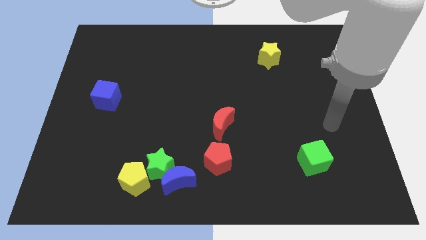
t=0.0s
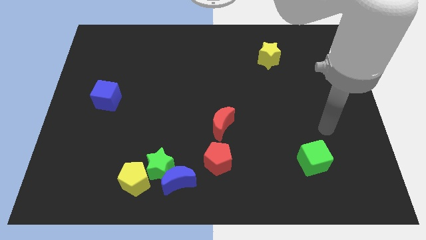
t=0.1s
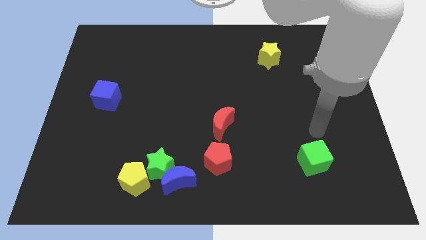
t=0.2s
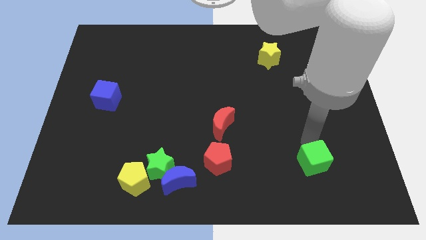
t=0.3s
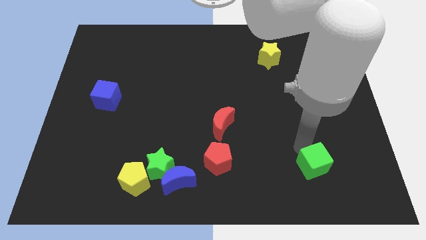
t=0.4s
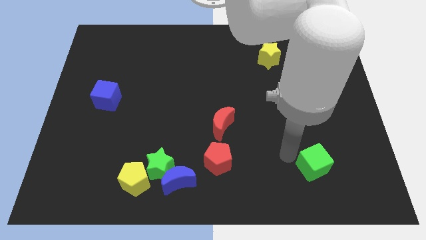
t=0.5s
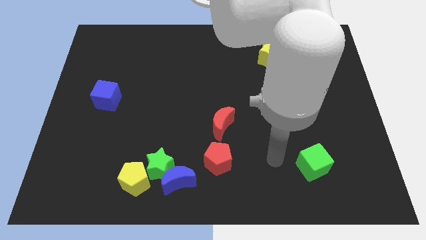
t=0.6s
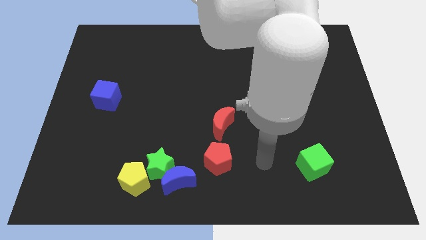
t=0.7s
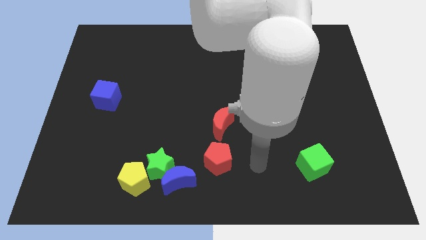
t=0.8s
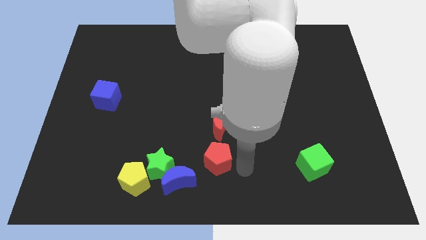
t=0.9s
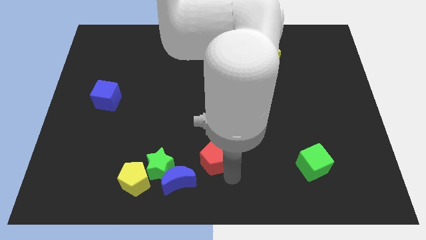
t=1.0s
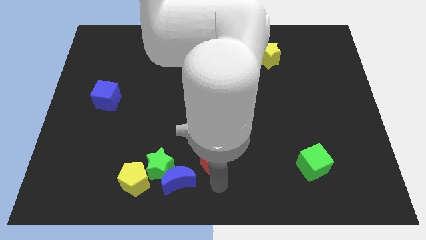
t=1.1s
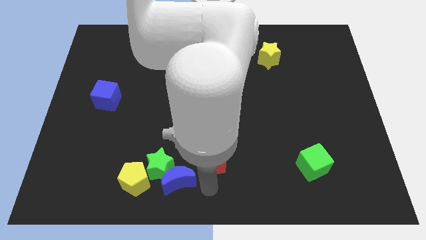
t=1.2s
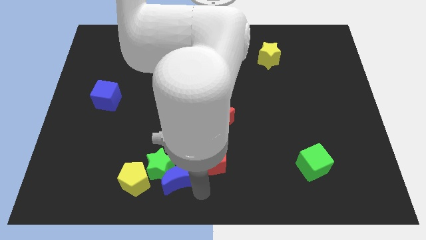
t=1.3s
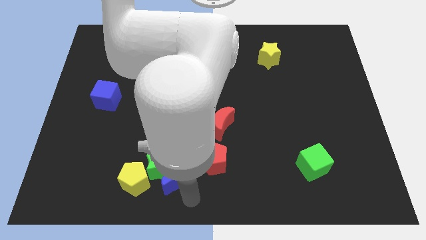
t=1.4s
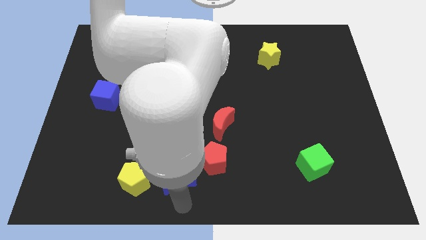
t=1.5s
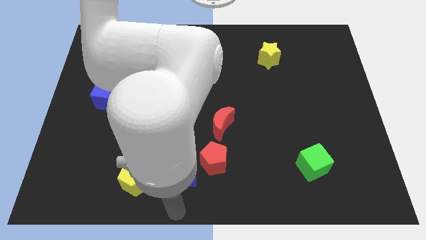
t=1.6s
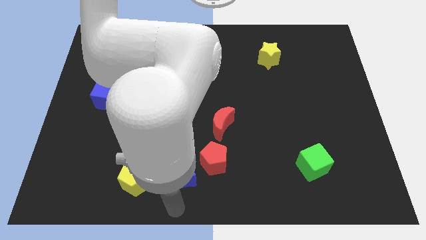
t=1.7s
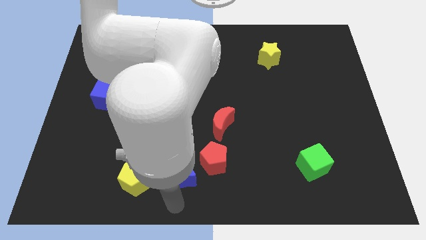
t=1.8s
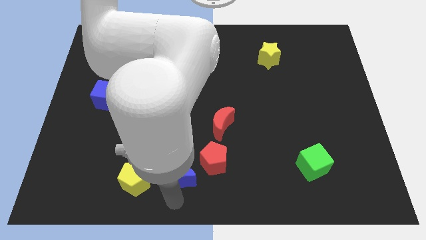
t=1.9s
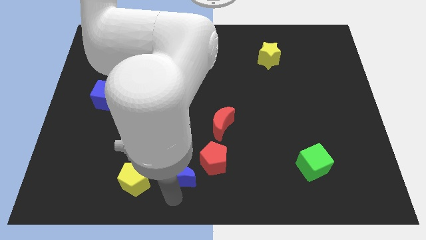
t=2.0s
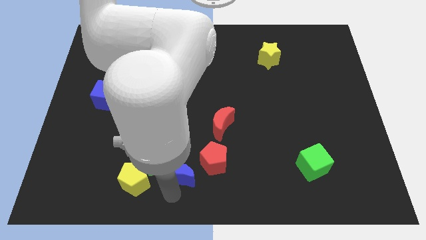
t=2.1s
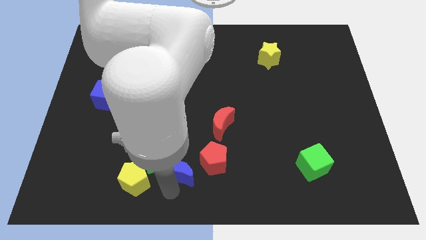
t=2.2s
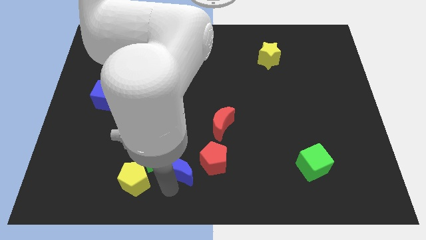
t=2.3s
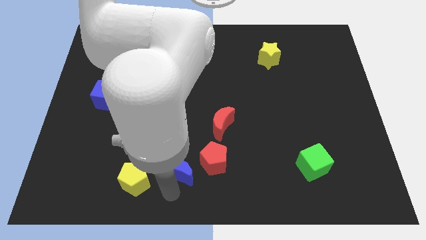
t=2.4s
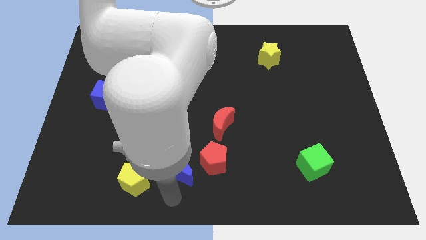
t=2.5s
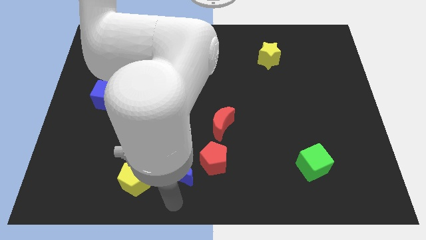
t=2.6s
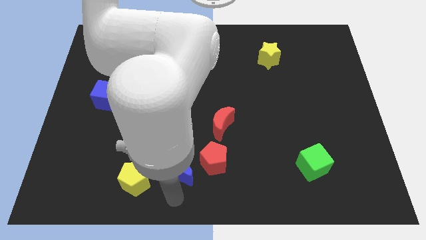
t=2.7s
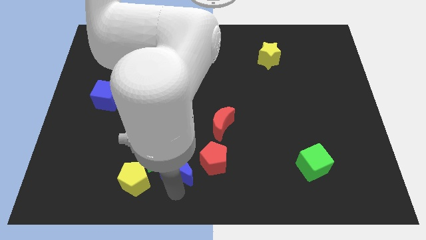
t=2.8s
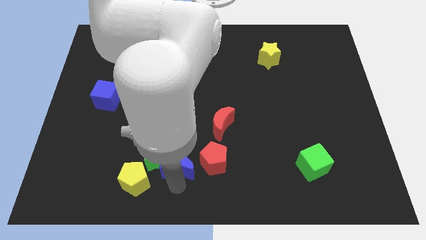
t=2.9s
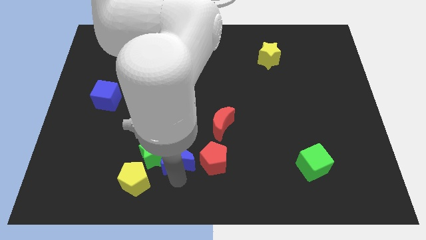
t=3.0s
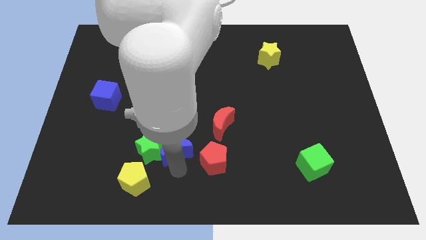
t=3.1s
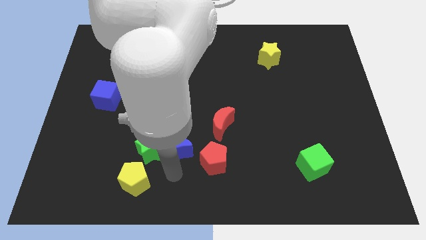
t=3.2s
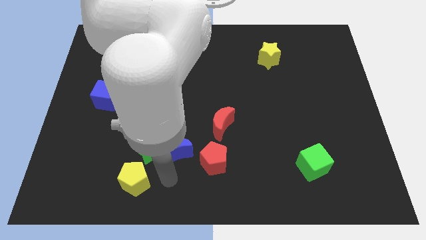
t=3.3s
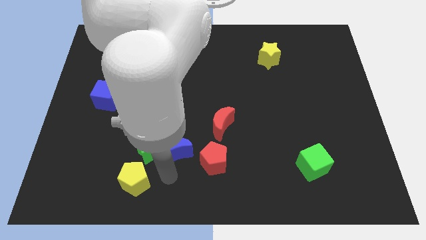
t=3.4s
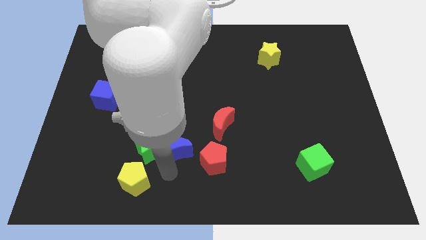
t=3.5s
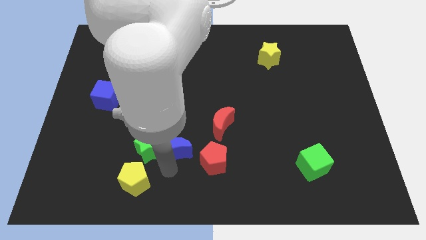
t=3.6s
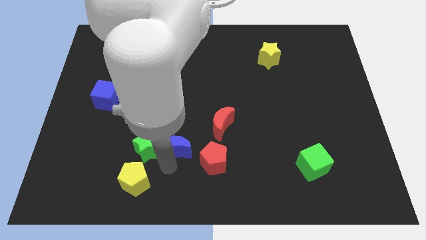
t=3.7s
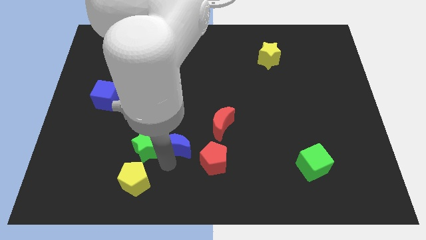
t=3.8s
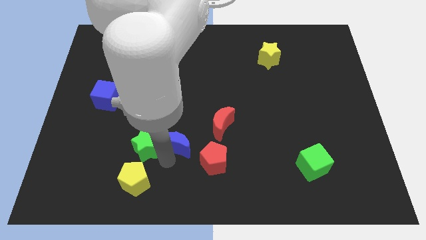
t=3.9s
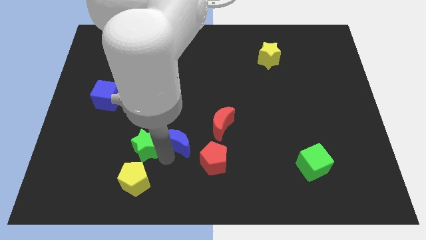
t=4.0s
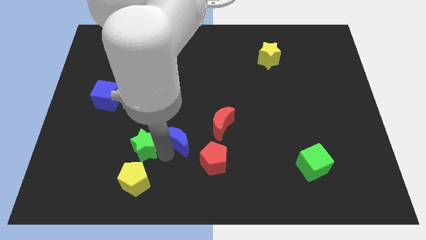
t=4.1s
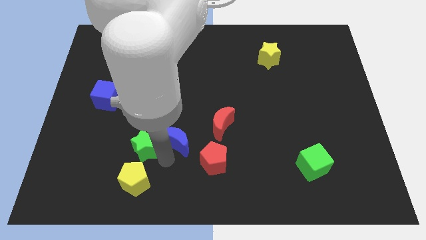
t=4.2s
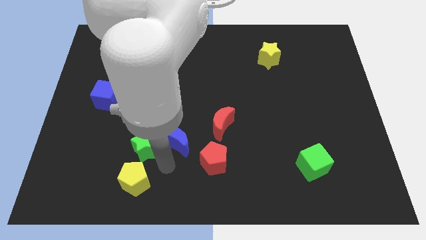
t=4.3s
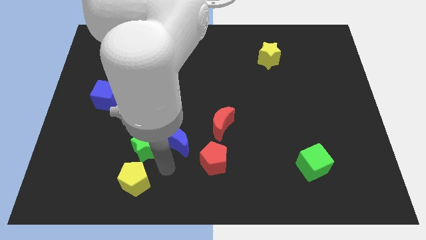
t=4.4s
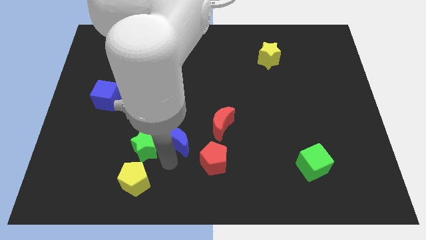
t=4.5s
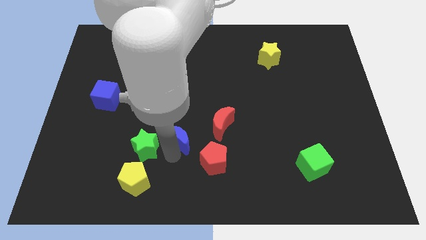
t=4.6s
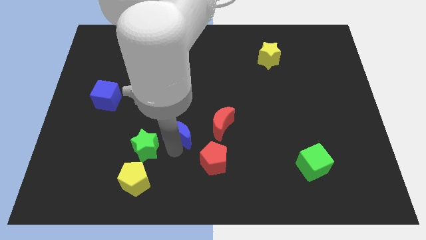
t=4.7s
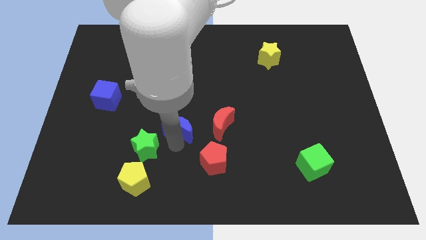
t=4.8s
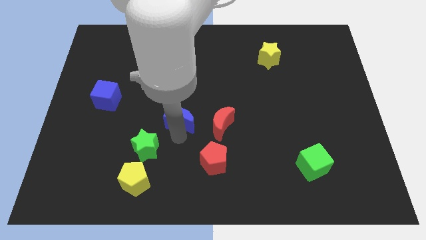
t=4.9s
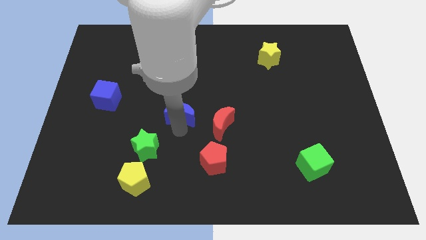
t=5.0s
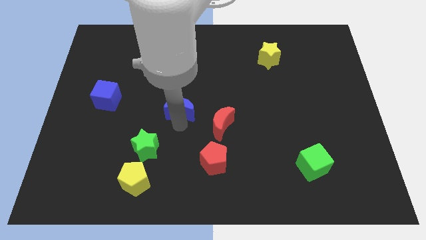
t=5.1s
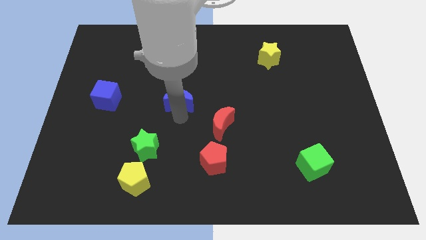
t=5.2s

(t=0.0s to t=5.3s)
slide the blue moon up

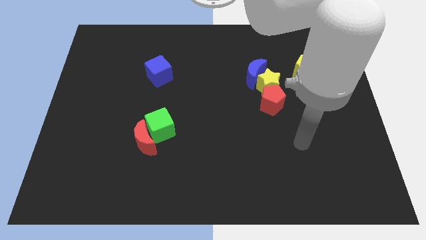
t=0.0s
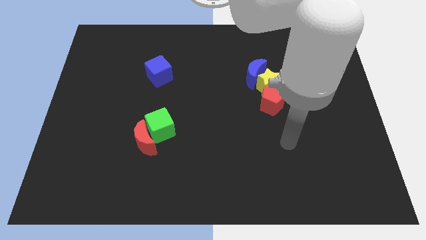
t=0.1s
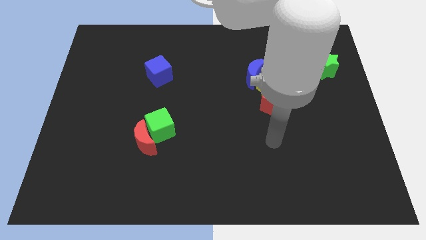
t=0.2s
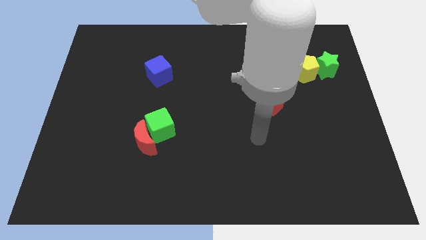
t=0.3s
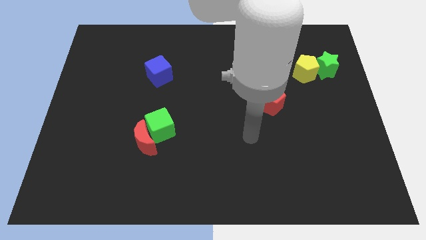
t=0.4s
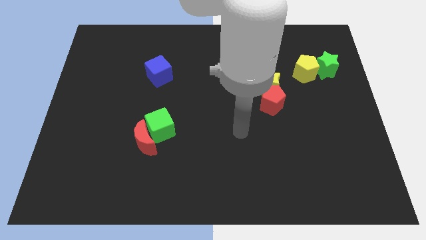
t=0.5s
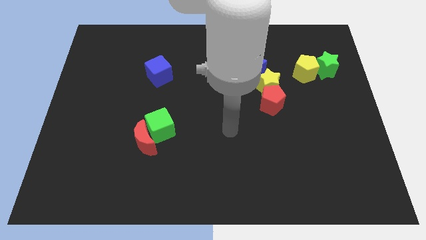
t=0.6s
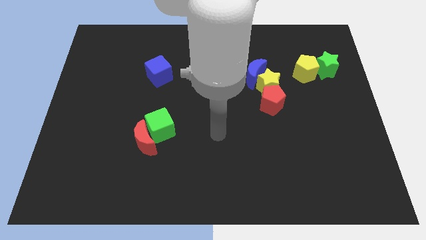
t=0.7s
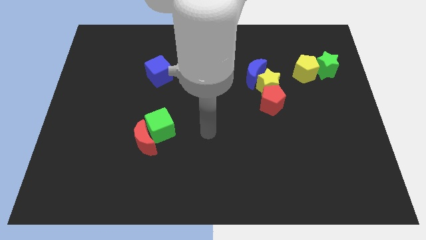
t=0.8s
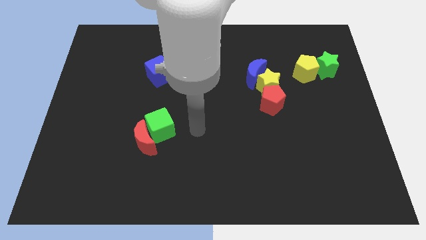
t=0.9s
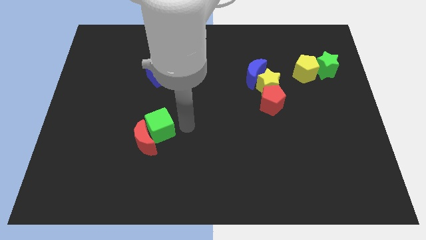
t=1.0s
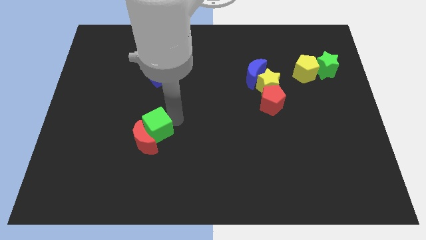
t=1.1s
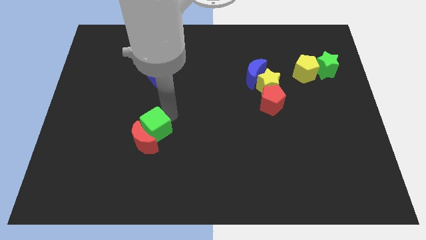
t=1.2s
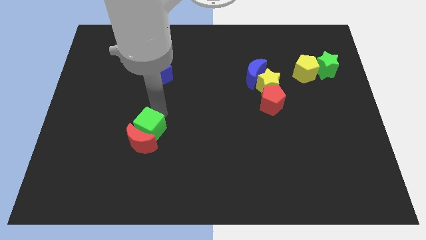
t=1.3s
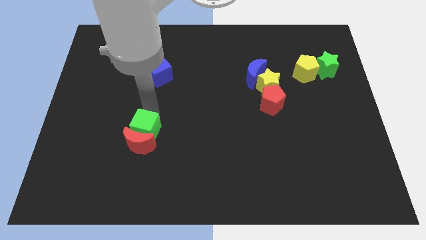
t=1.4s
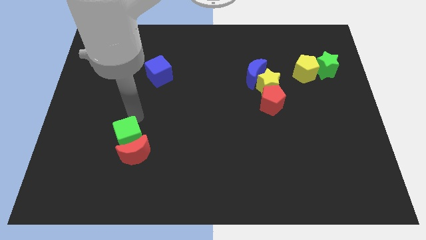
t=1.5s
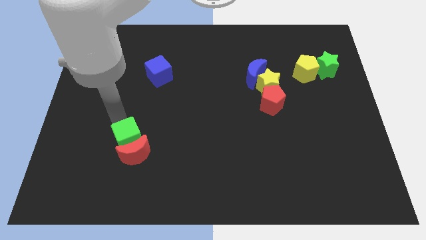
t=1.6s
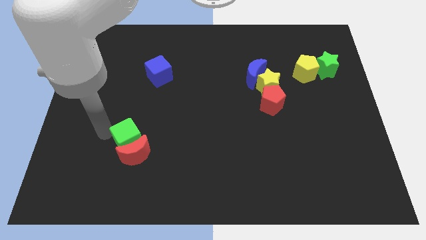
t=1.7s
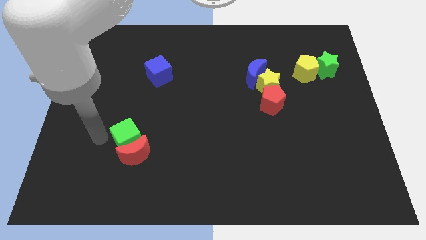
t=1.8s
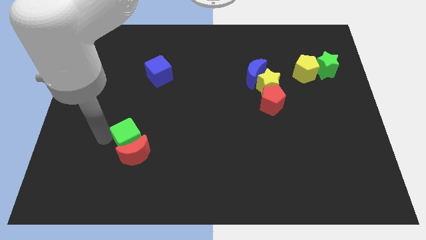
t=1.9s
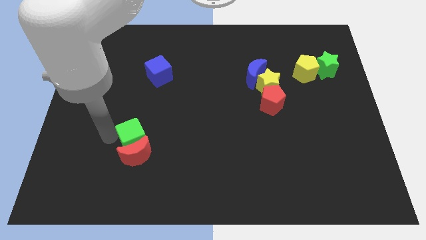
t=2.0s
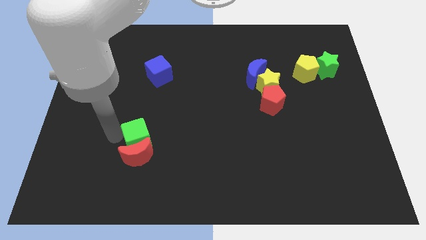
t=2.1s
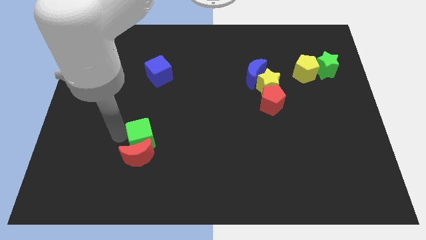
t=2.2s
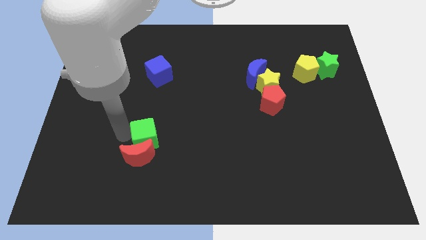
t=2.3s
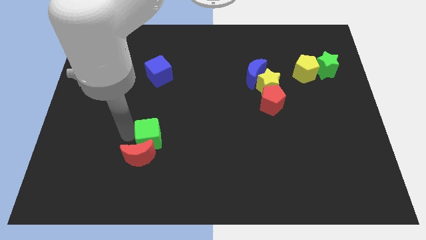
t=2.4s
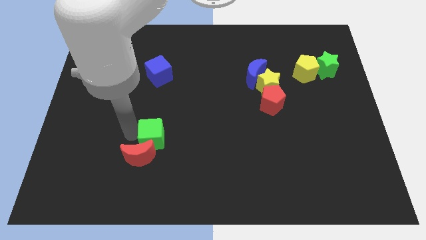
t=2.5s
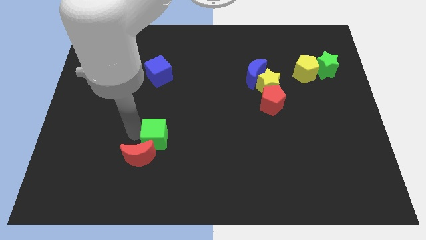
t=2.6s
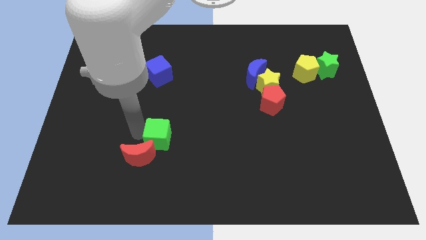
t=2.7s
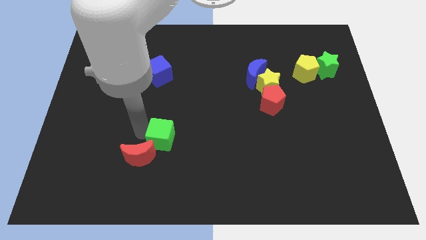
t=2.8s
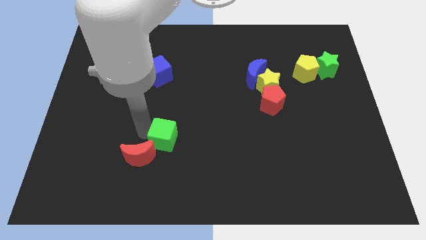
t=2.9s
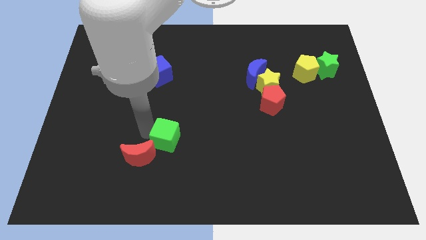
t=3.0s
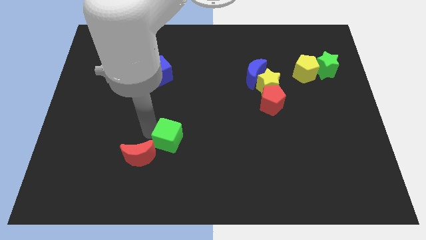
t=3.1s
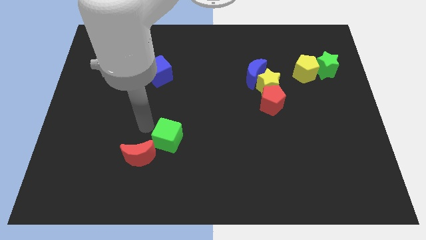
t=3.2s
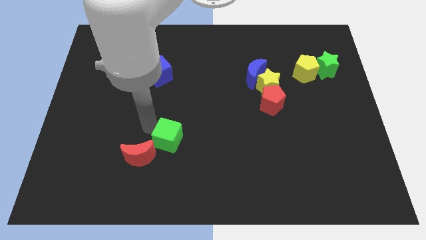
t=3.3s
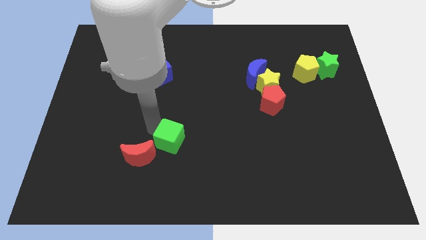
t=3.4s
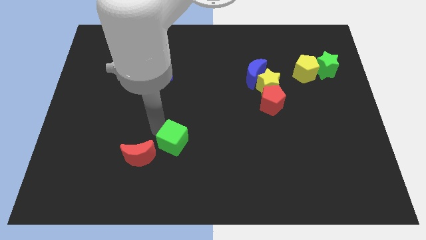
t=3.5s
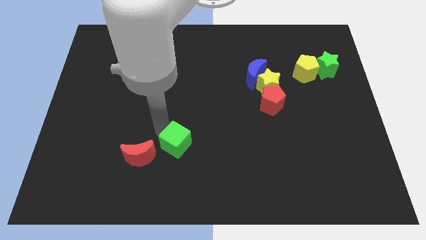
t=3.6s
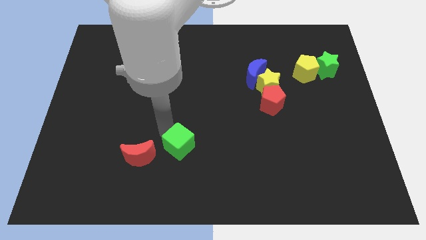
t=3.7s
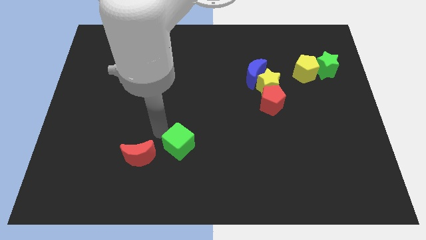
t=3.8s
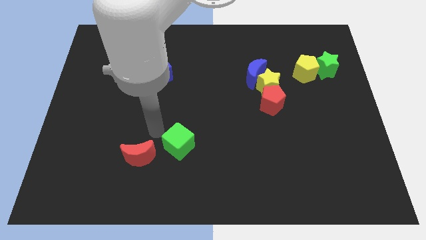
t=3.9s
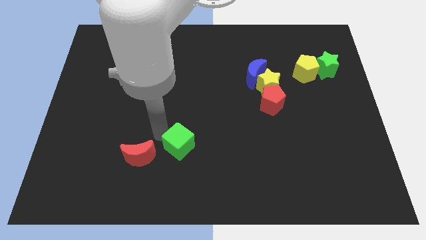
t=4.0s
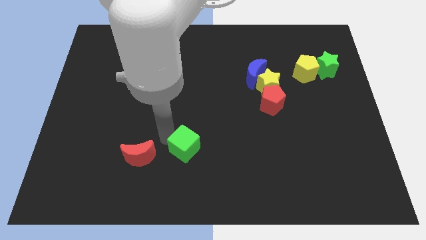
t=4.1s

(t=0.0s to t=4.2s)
move the green cube a little diagonally downwards and right
